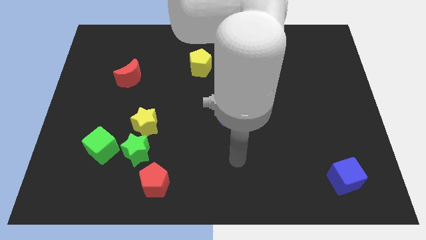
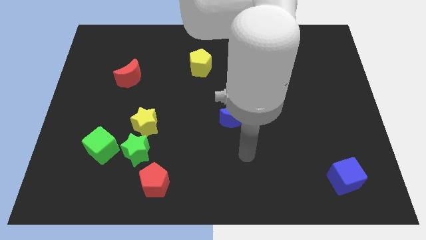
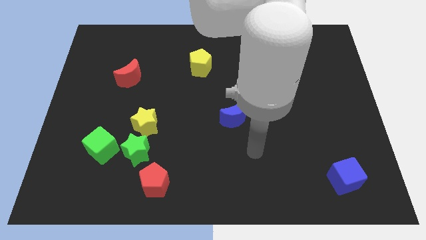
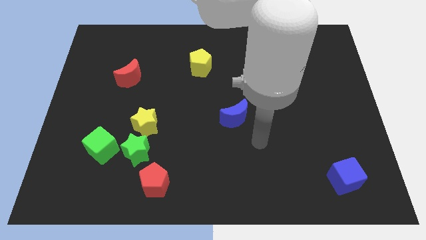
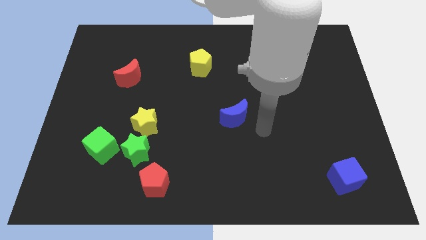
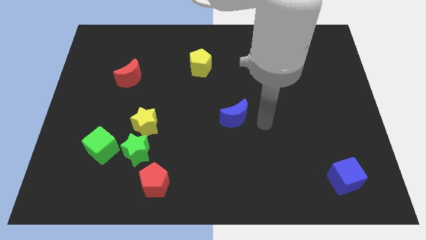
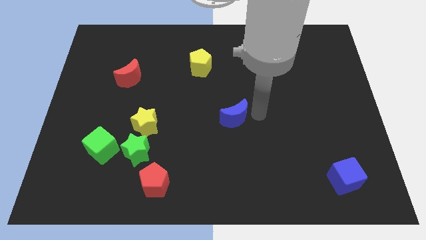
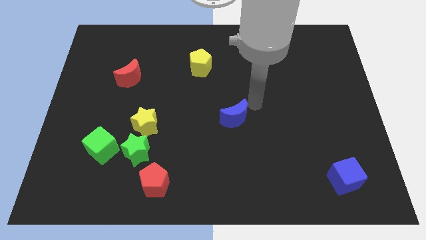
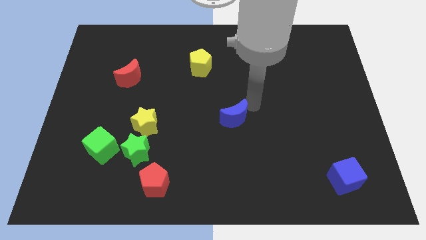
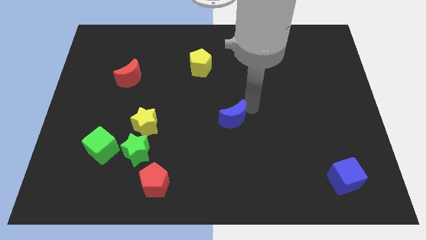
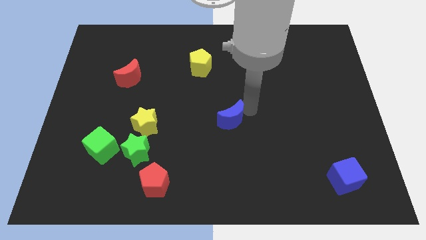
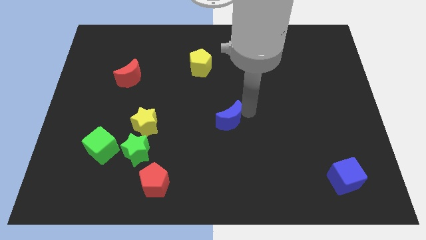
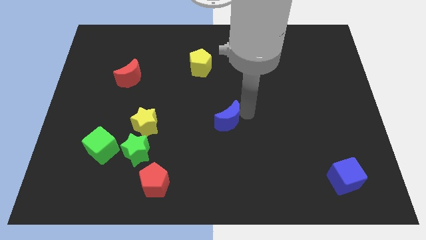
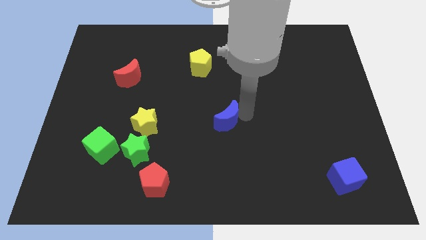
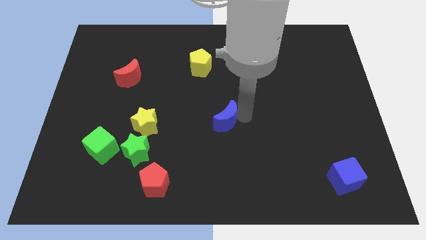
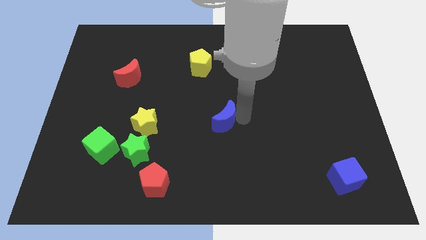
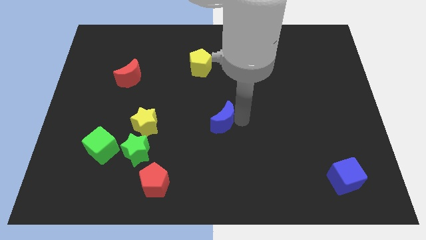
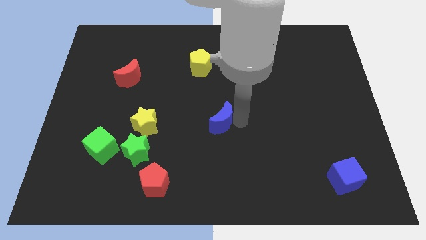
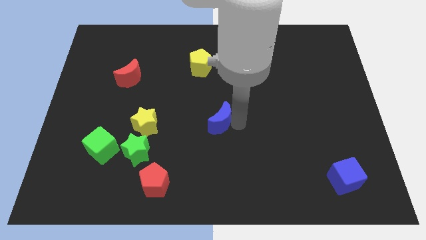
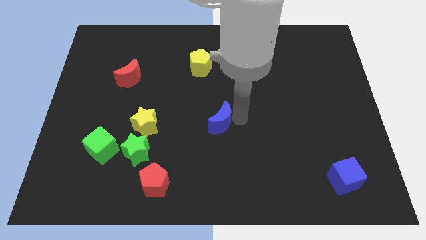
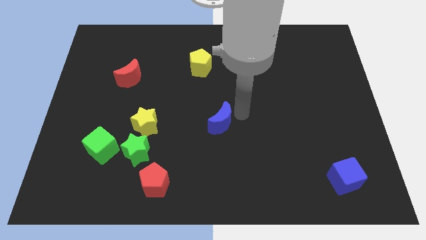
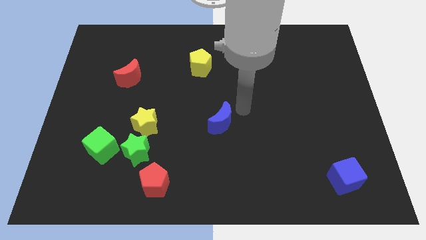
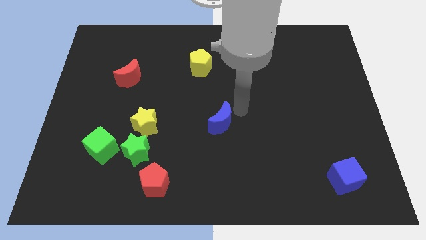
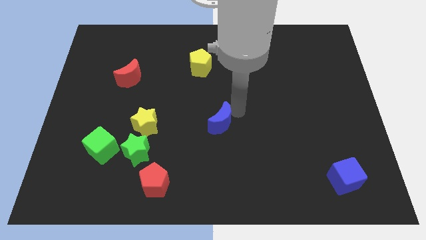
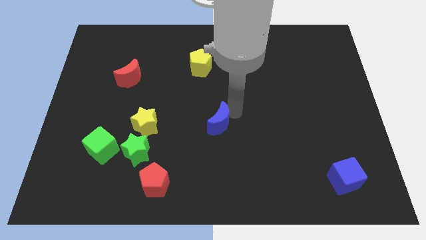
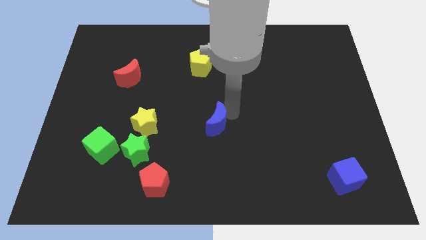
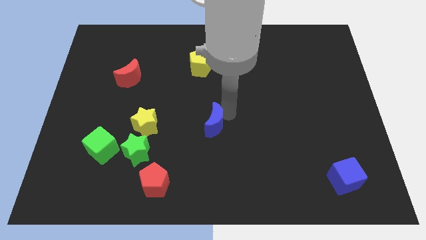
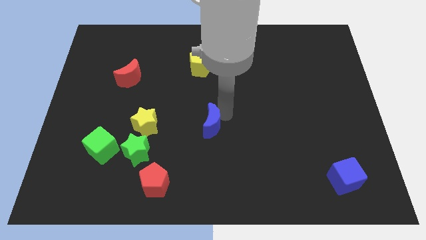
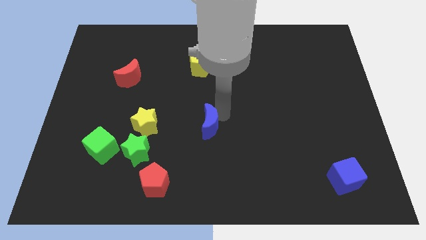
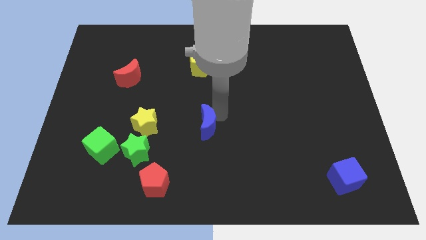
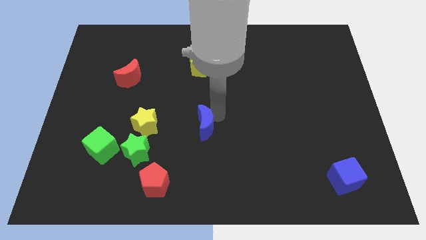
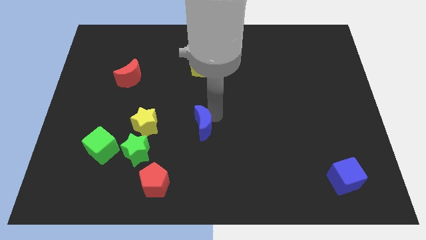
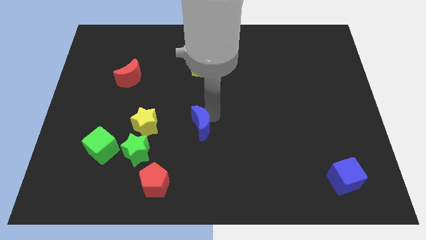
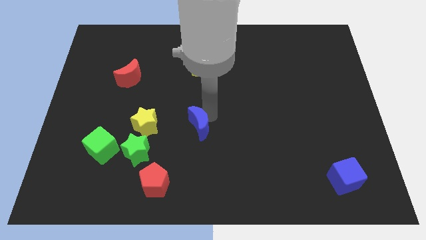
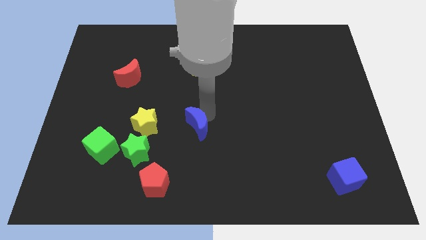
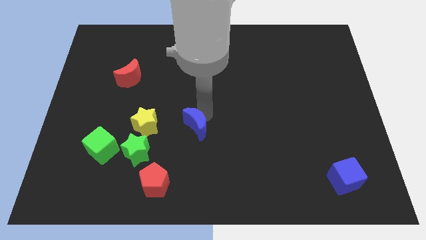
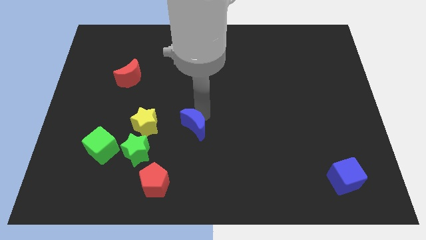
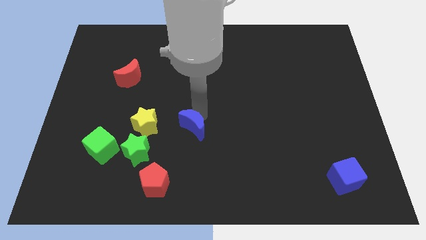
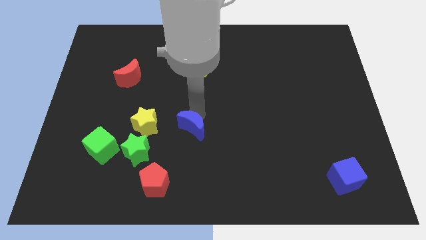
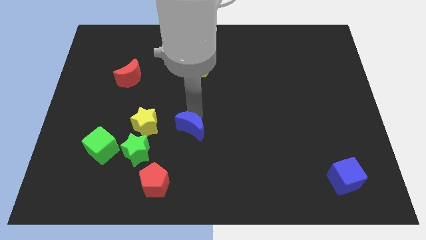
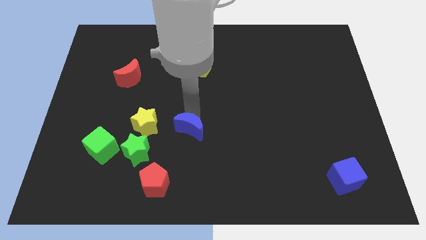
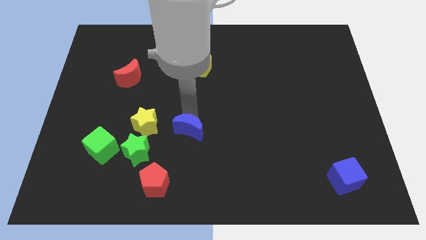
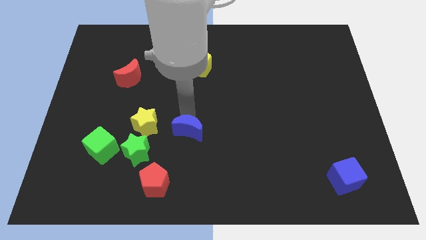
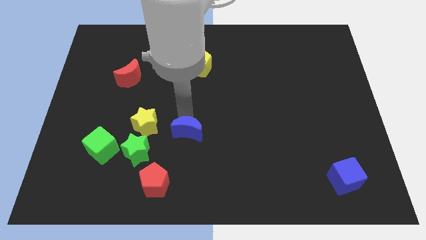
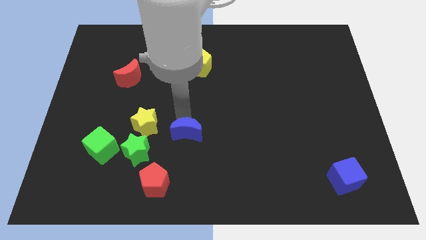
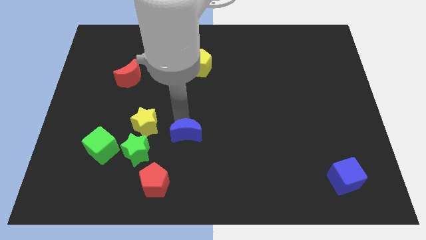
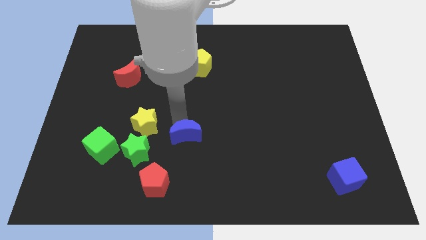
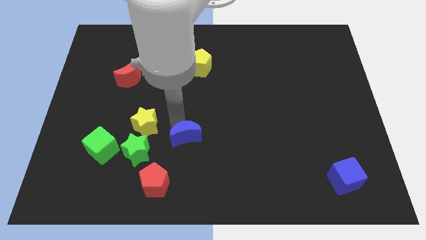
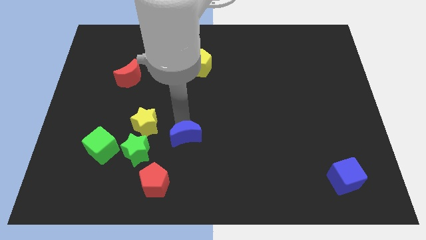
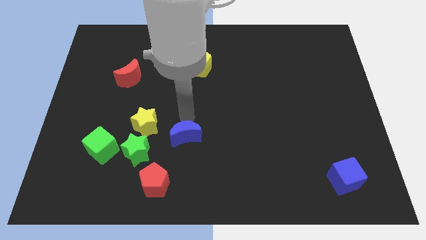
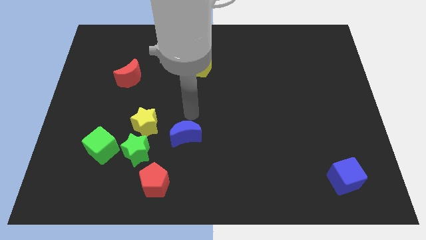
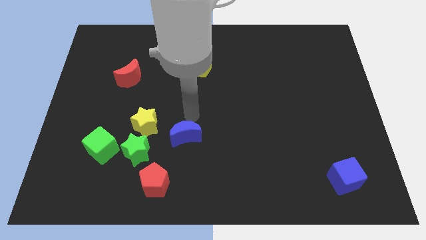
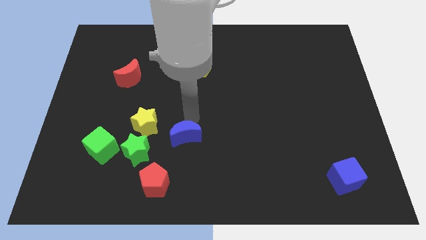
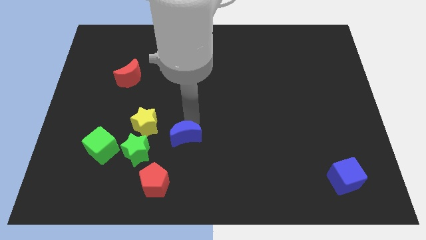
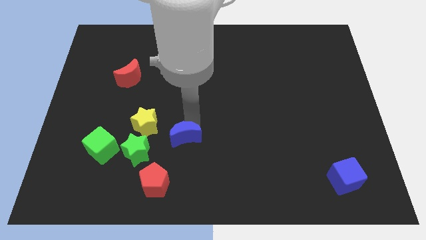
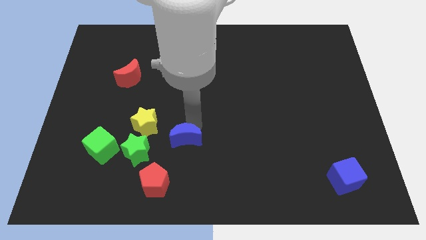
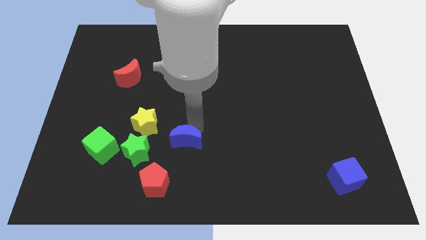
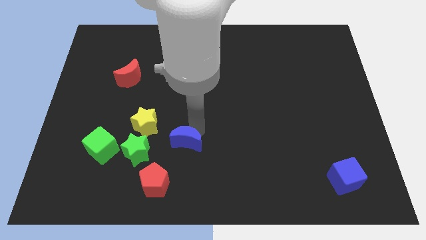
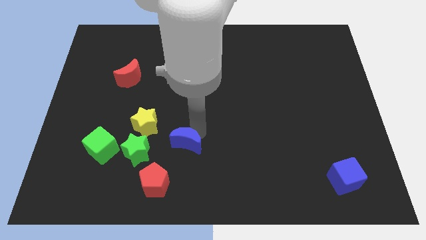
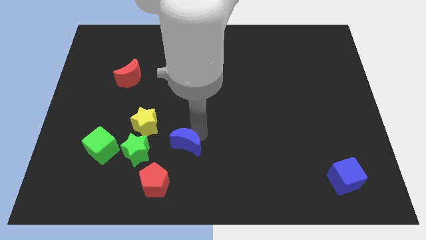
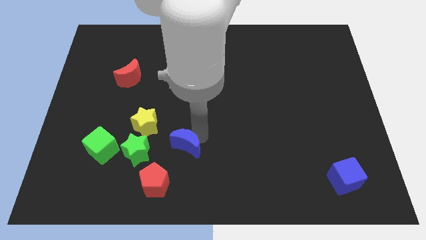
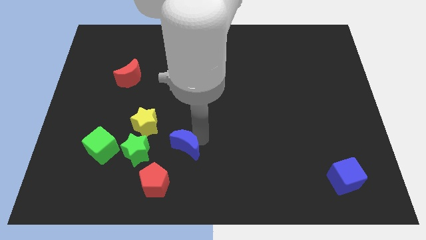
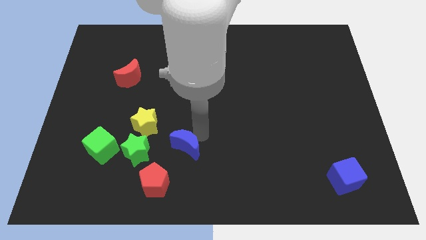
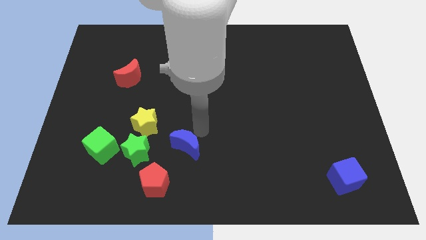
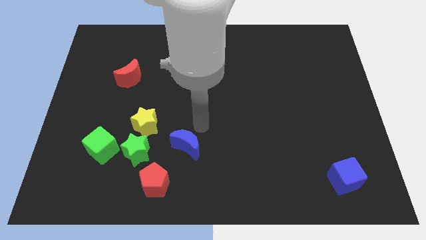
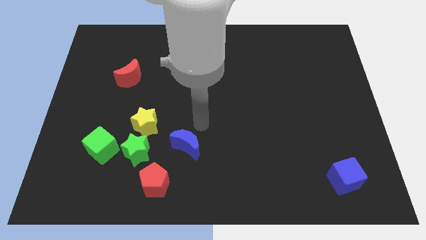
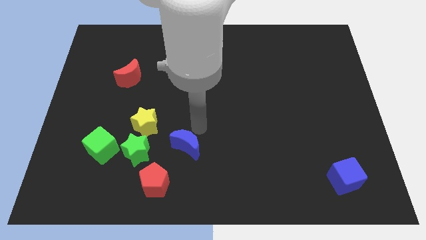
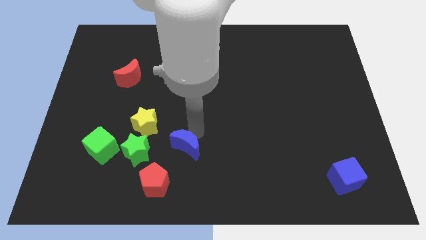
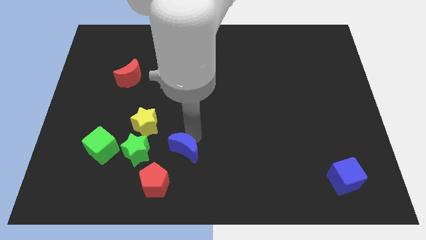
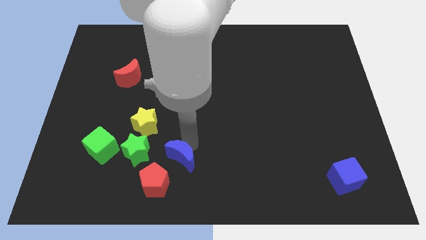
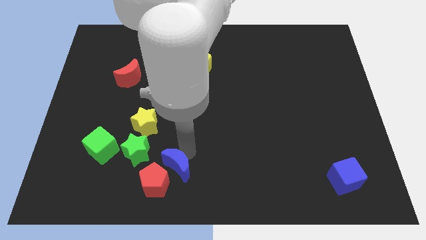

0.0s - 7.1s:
move the blue moon close to the red pentagon
